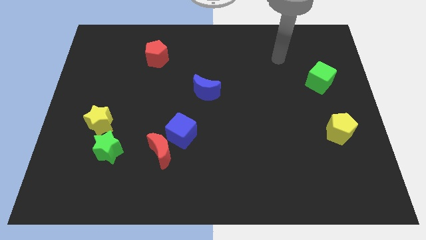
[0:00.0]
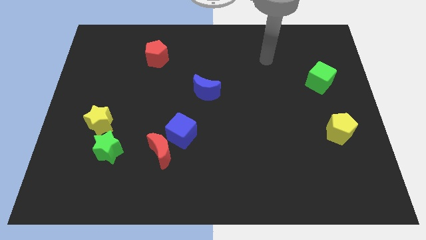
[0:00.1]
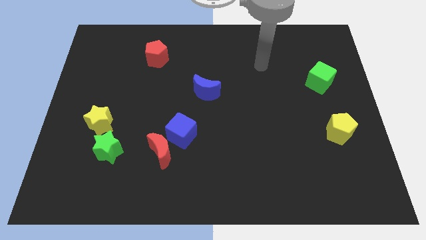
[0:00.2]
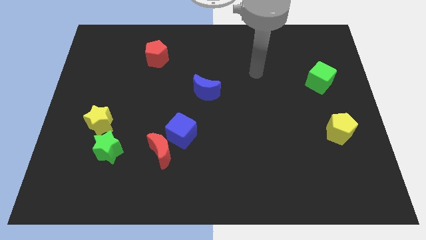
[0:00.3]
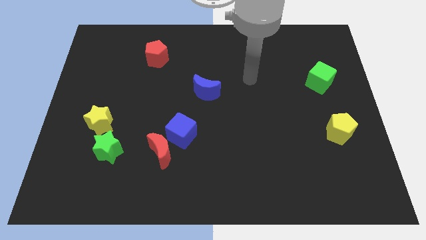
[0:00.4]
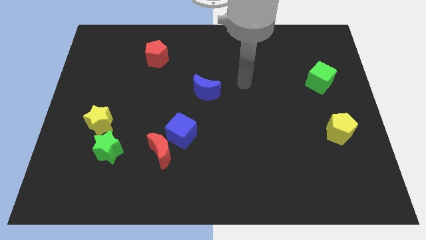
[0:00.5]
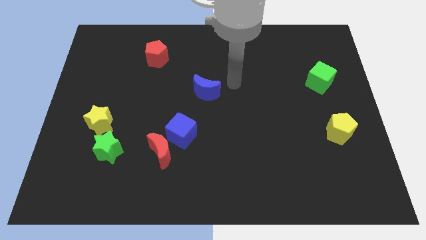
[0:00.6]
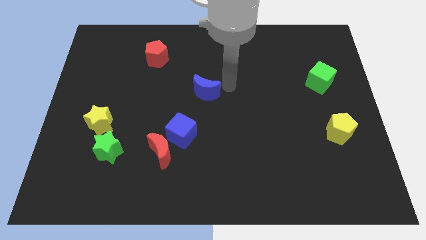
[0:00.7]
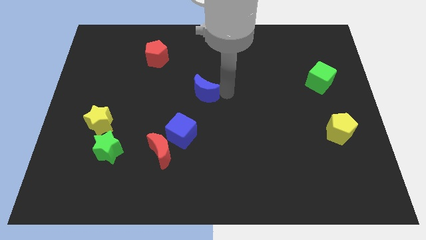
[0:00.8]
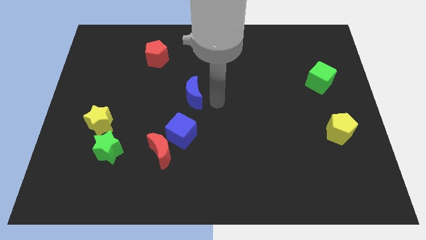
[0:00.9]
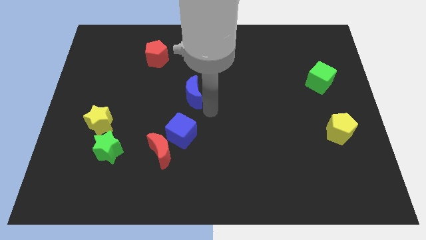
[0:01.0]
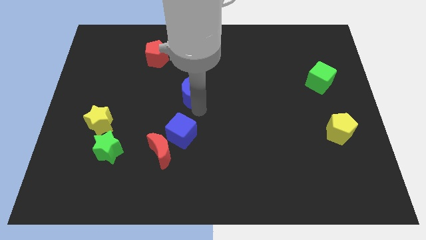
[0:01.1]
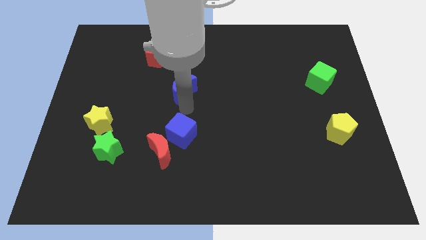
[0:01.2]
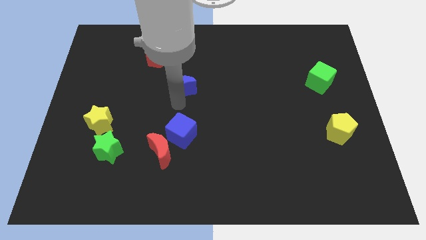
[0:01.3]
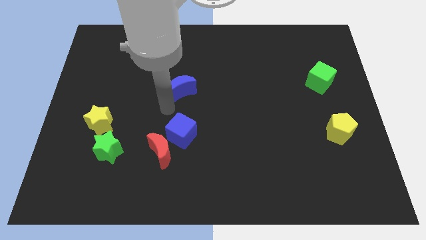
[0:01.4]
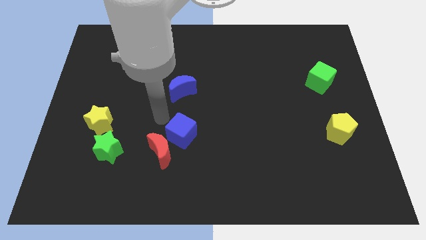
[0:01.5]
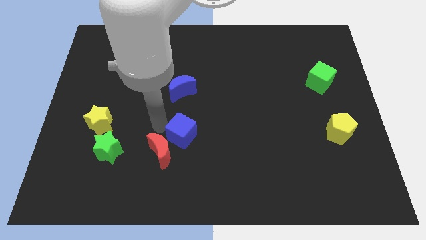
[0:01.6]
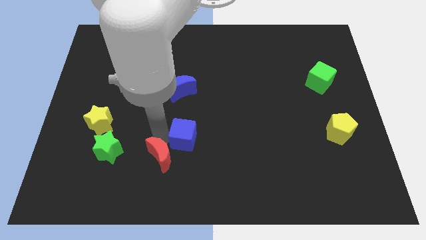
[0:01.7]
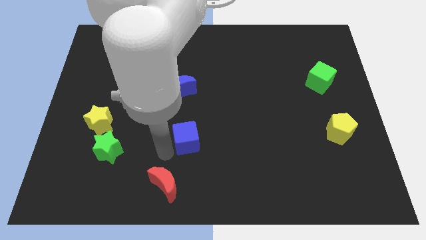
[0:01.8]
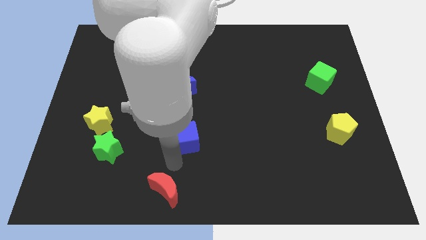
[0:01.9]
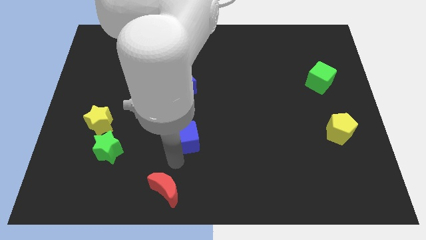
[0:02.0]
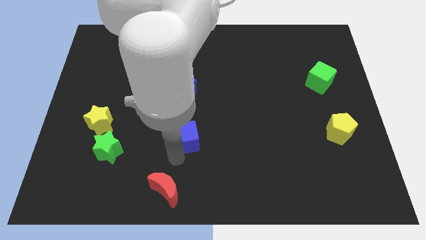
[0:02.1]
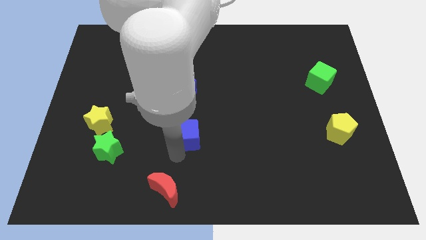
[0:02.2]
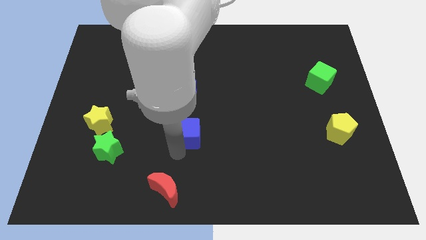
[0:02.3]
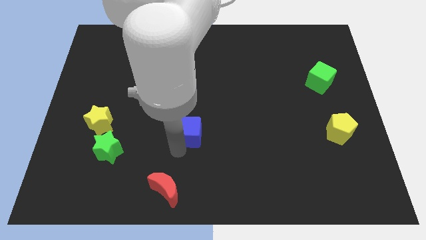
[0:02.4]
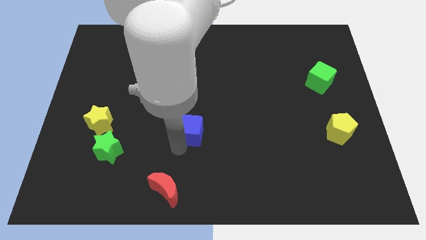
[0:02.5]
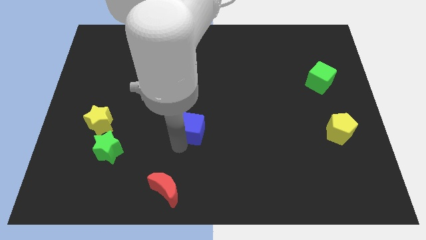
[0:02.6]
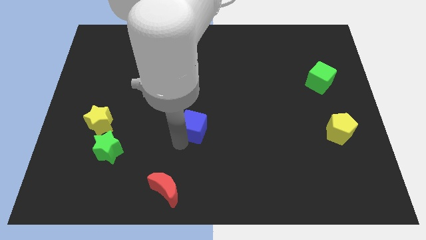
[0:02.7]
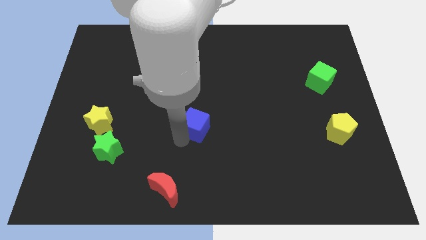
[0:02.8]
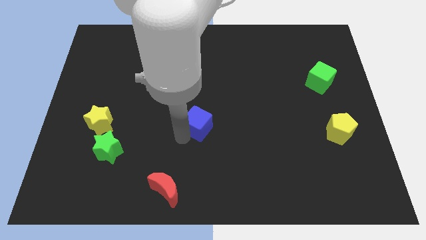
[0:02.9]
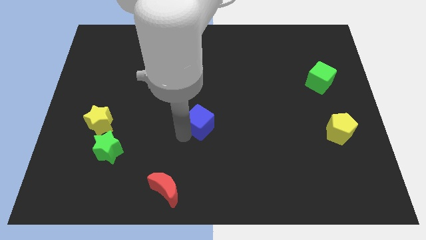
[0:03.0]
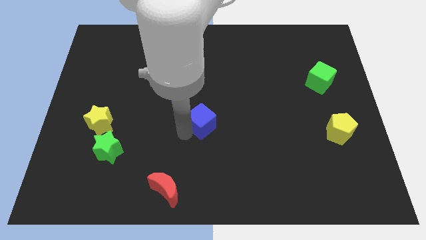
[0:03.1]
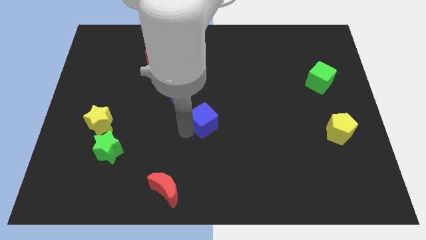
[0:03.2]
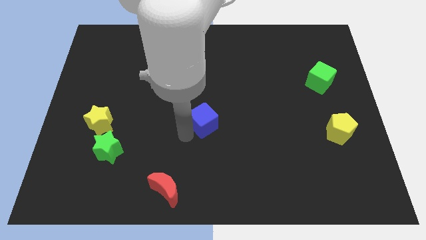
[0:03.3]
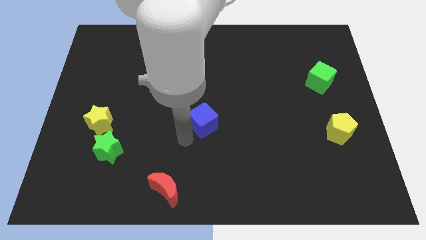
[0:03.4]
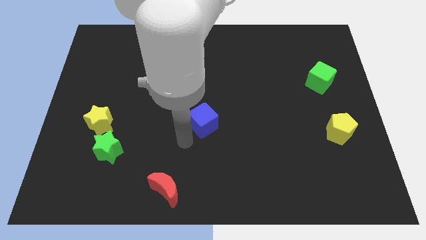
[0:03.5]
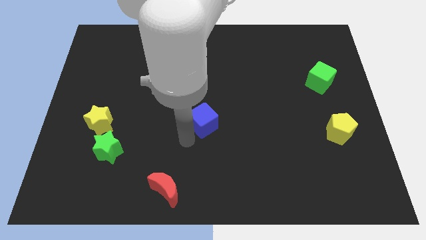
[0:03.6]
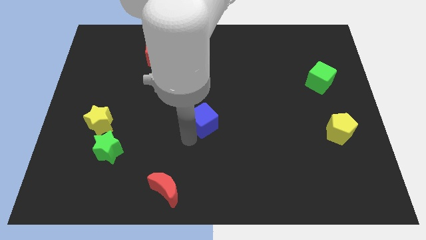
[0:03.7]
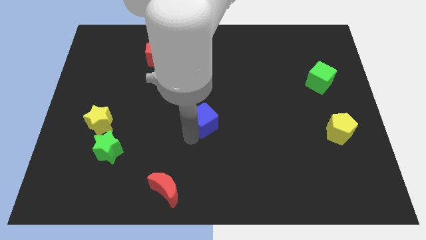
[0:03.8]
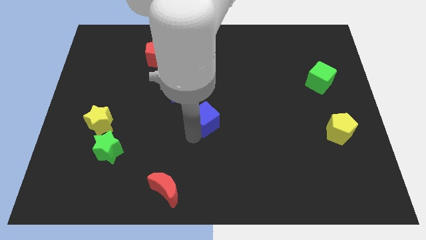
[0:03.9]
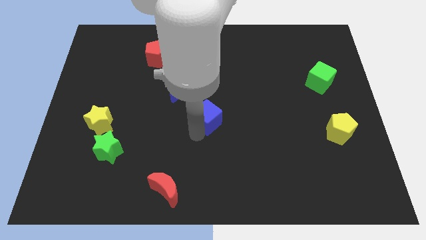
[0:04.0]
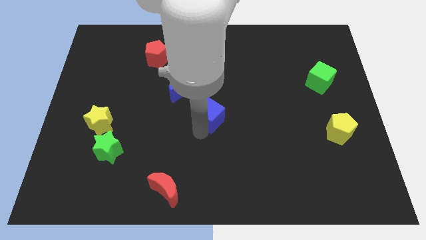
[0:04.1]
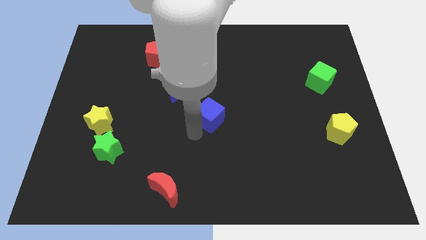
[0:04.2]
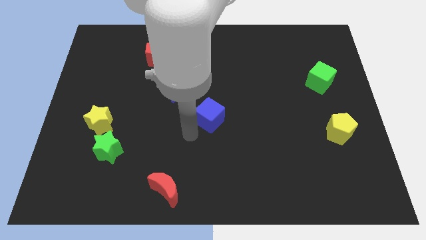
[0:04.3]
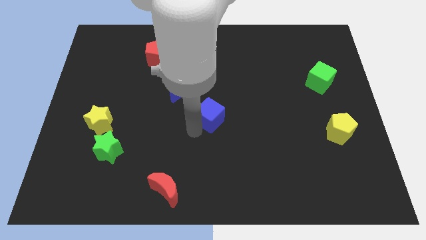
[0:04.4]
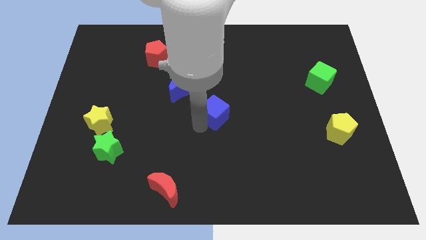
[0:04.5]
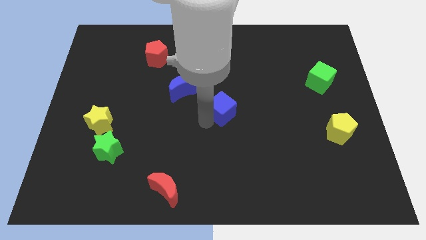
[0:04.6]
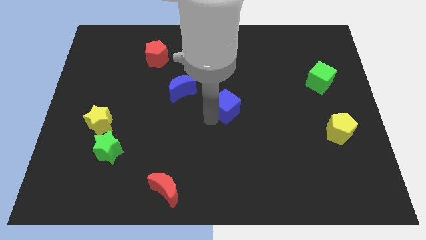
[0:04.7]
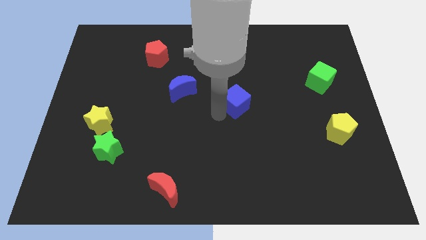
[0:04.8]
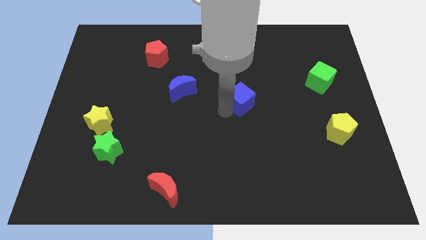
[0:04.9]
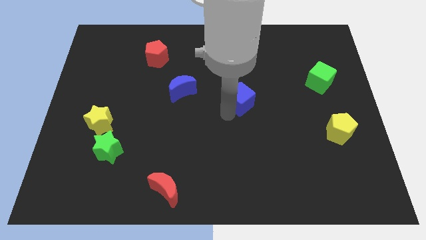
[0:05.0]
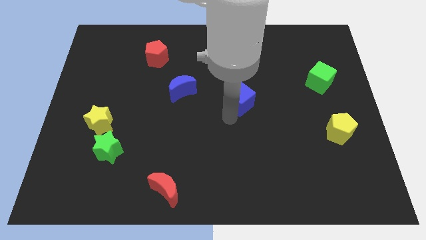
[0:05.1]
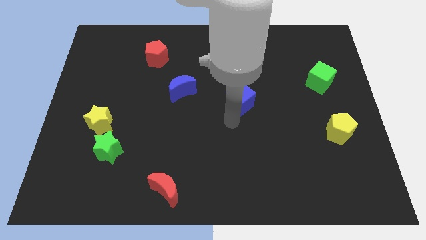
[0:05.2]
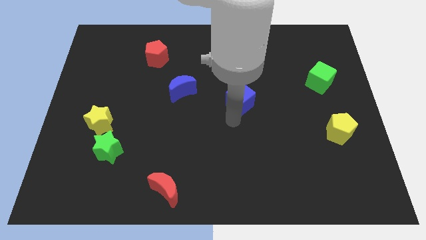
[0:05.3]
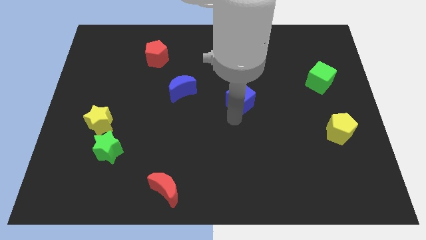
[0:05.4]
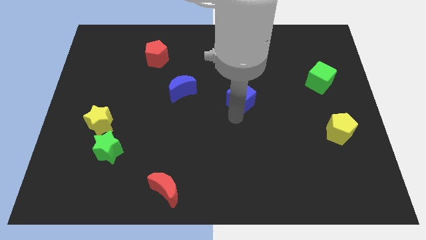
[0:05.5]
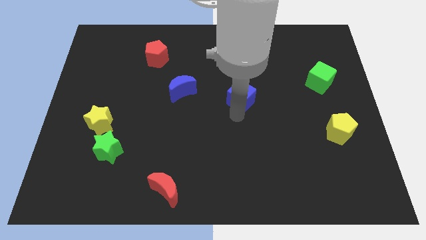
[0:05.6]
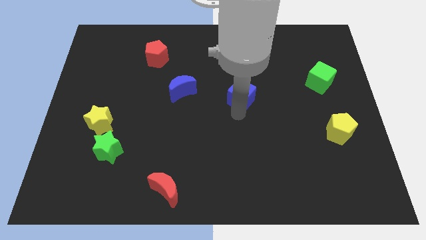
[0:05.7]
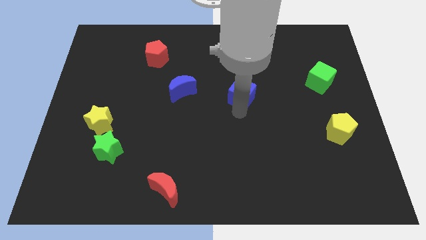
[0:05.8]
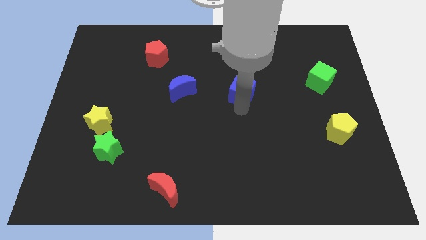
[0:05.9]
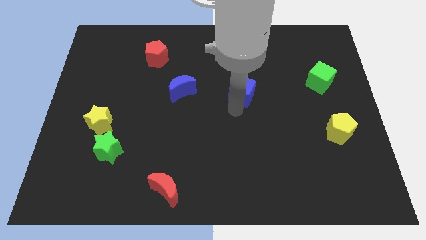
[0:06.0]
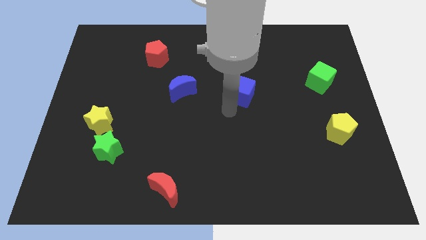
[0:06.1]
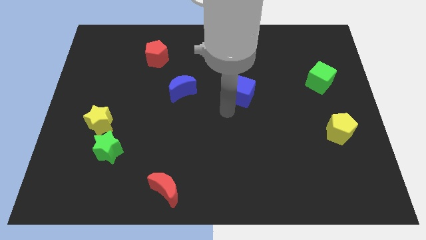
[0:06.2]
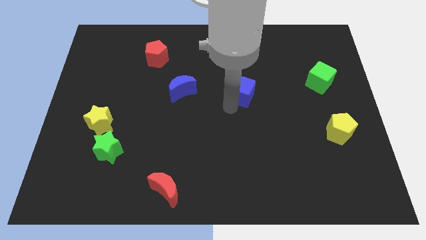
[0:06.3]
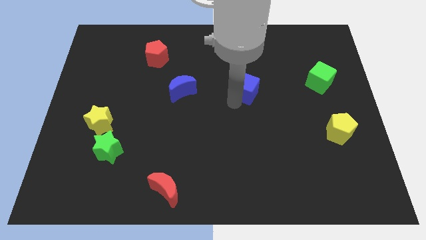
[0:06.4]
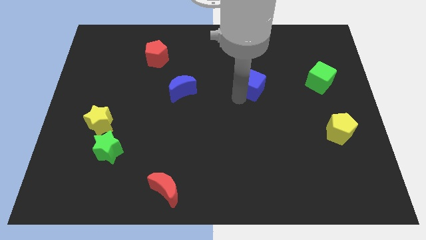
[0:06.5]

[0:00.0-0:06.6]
slide the blue cube upwards and right

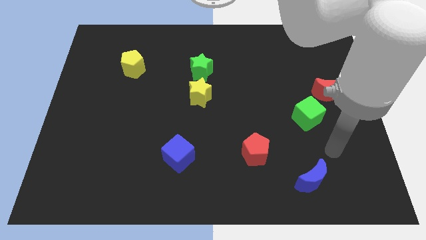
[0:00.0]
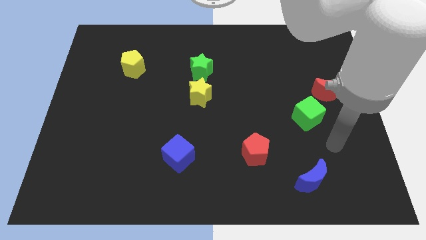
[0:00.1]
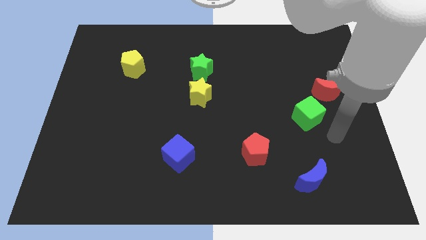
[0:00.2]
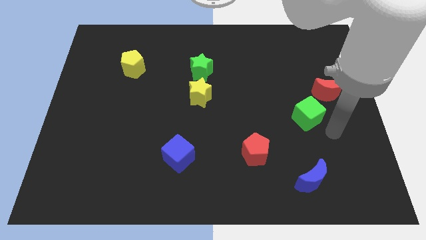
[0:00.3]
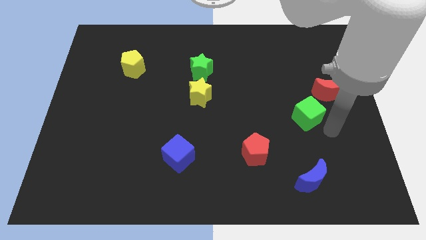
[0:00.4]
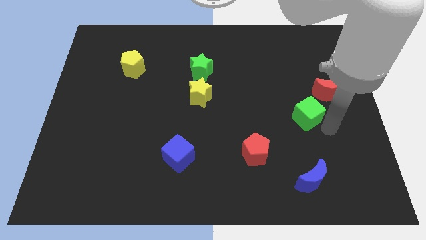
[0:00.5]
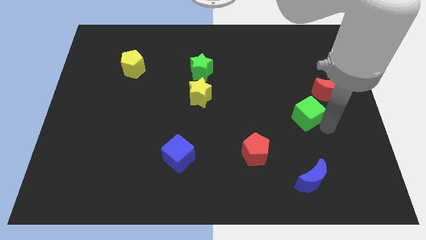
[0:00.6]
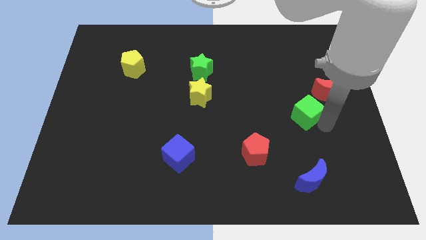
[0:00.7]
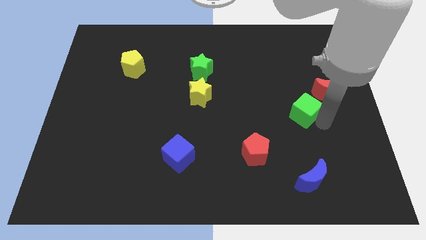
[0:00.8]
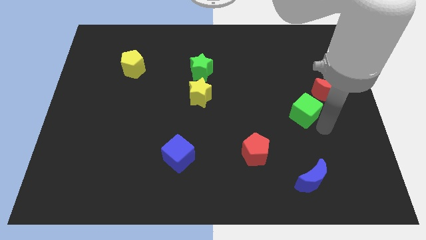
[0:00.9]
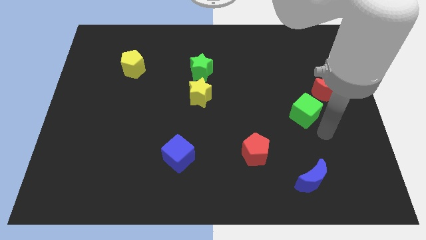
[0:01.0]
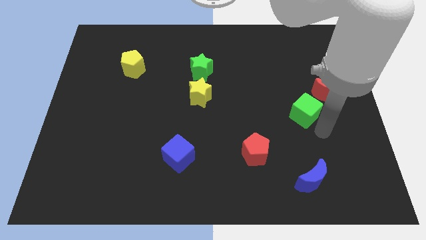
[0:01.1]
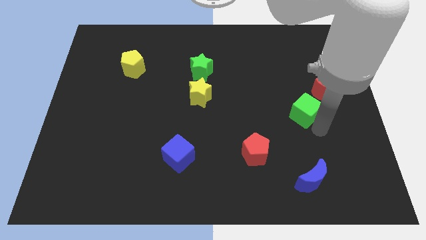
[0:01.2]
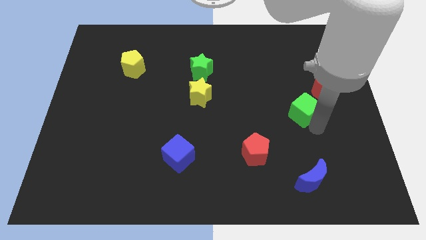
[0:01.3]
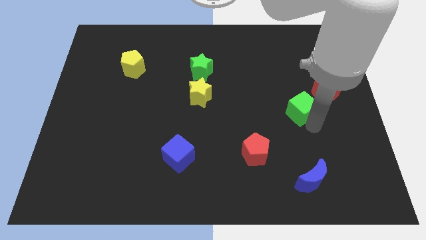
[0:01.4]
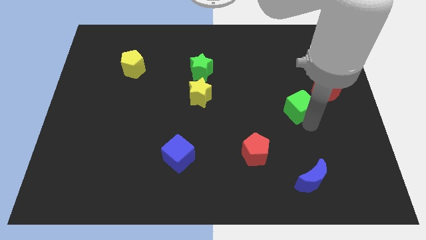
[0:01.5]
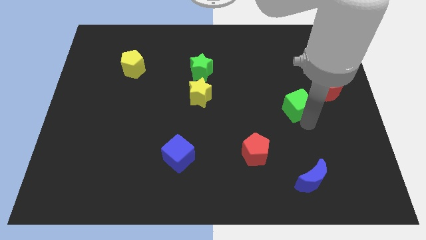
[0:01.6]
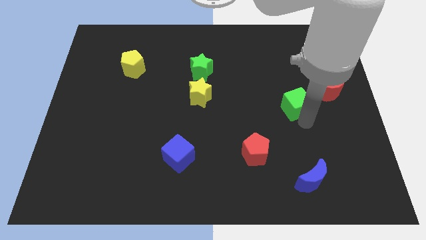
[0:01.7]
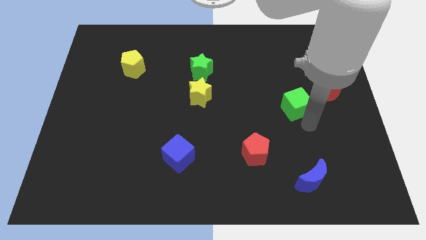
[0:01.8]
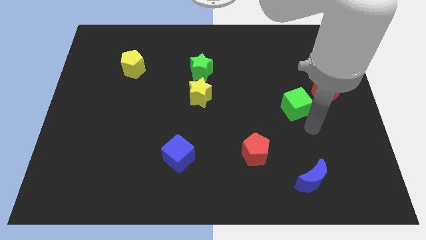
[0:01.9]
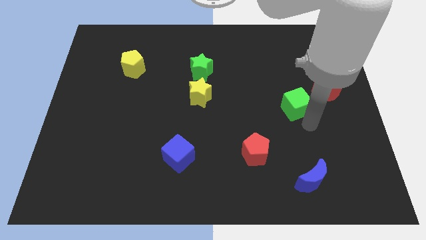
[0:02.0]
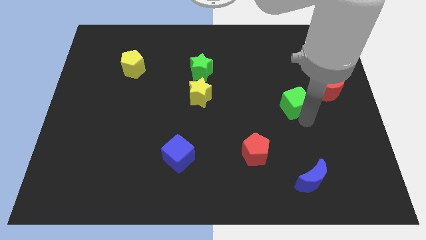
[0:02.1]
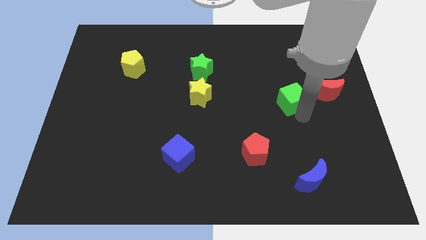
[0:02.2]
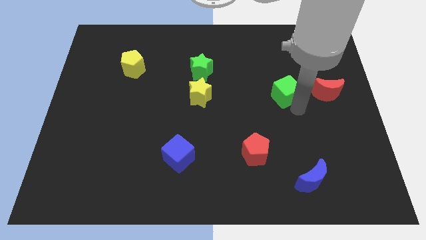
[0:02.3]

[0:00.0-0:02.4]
slightly move the green cube up and then to the left
